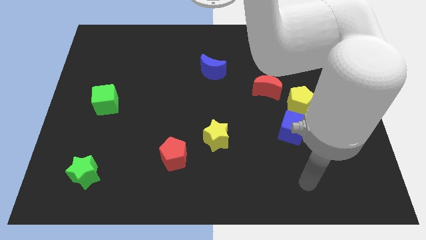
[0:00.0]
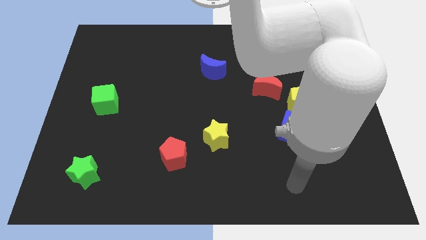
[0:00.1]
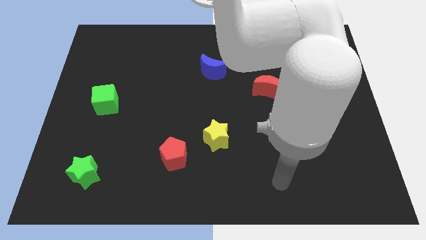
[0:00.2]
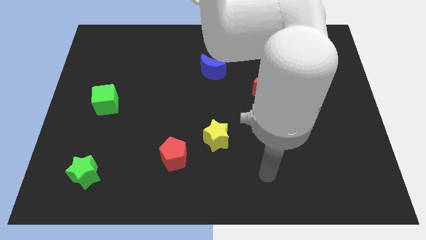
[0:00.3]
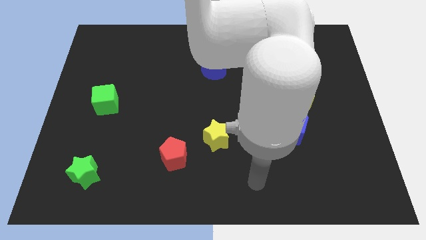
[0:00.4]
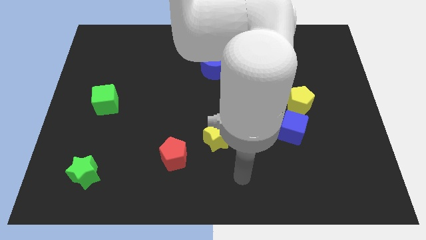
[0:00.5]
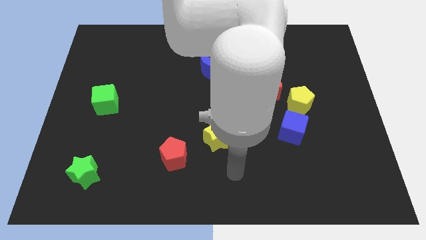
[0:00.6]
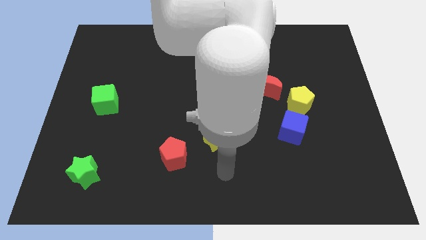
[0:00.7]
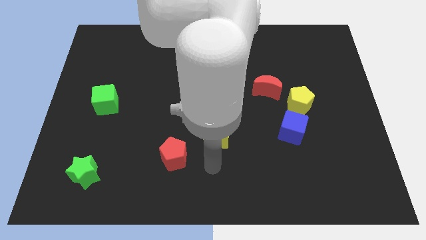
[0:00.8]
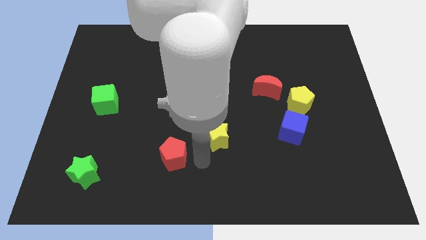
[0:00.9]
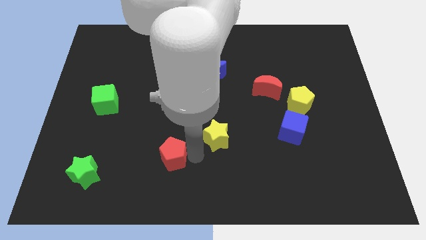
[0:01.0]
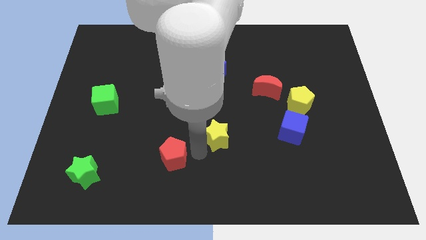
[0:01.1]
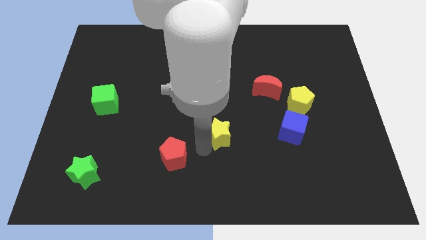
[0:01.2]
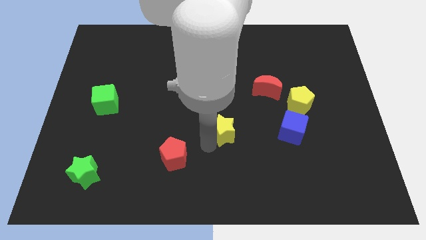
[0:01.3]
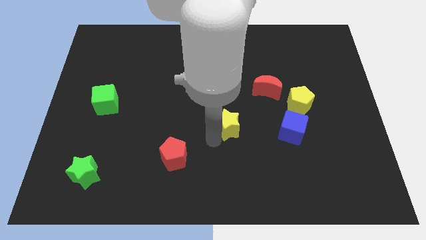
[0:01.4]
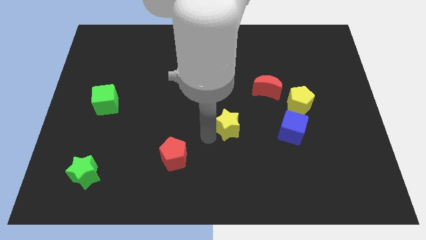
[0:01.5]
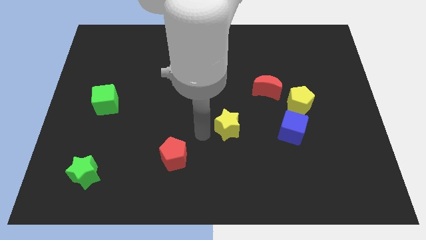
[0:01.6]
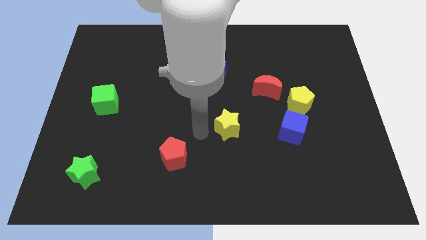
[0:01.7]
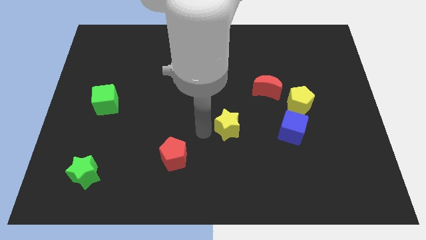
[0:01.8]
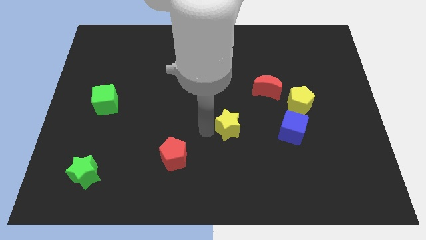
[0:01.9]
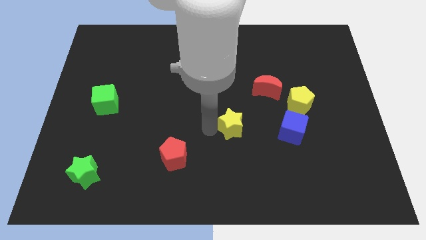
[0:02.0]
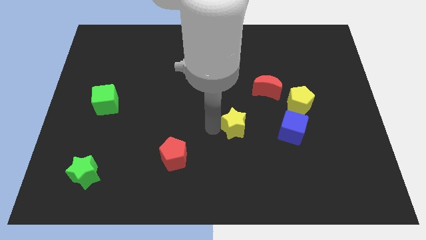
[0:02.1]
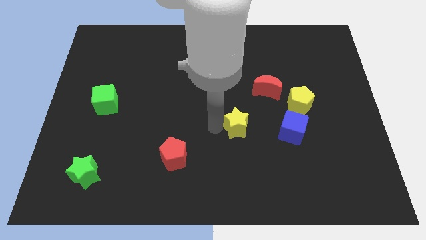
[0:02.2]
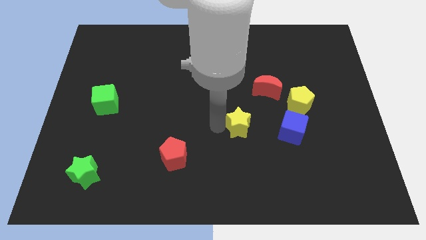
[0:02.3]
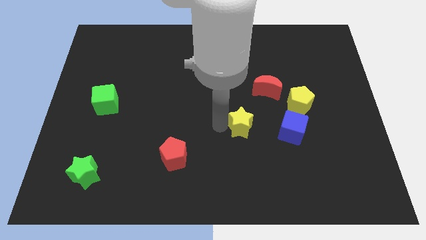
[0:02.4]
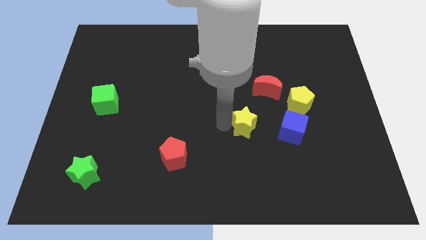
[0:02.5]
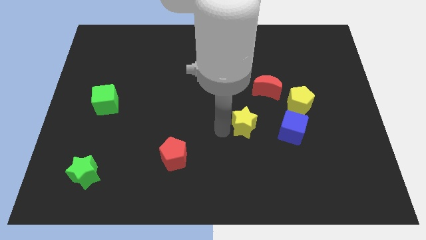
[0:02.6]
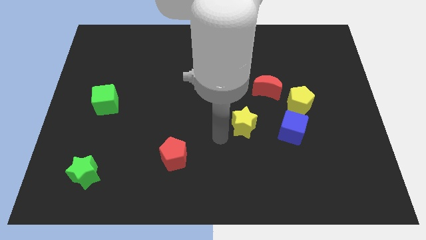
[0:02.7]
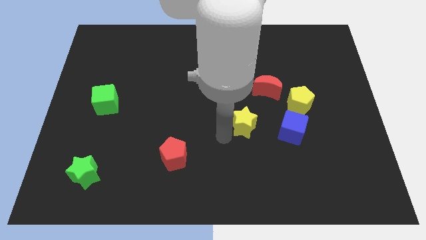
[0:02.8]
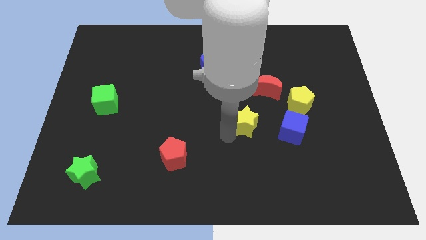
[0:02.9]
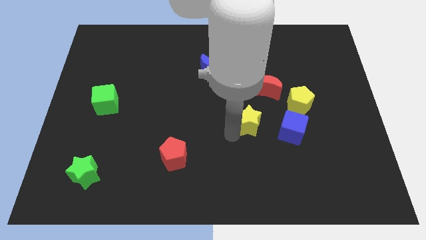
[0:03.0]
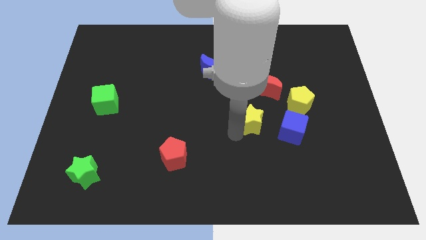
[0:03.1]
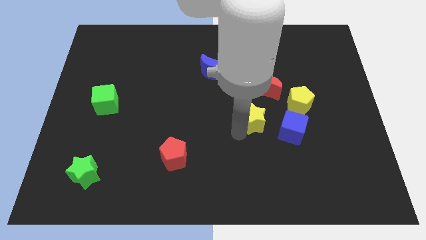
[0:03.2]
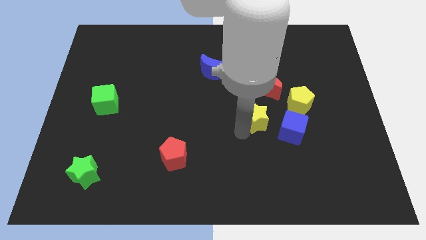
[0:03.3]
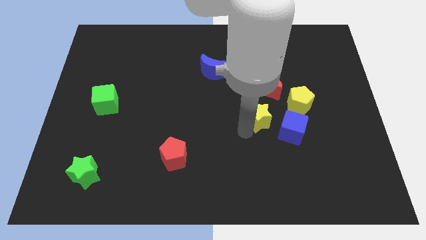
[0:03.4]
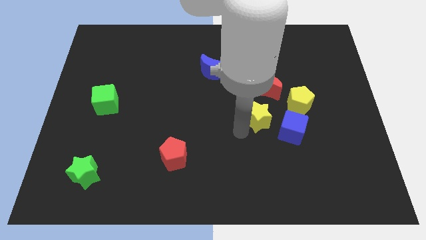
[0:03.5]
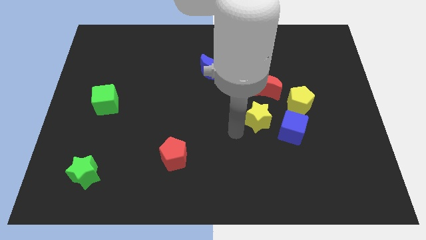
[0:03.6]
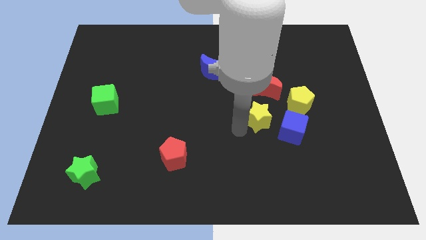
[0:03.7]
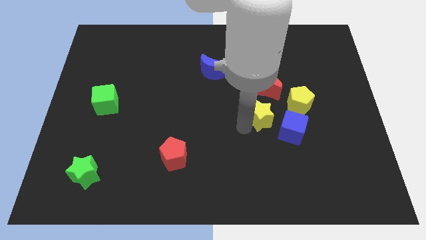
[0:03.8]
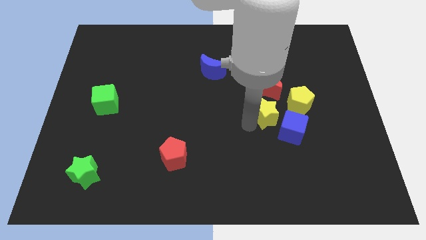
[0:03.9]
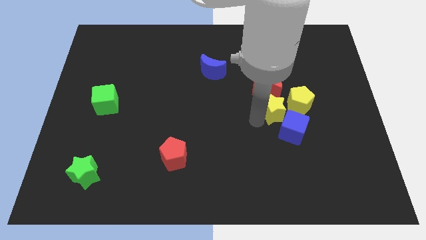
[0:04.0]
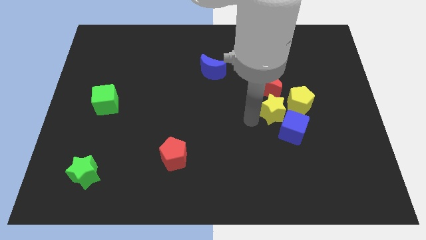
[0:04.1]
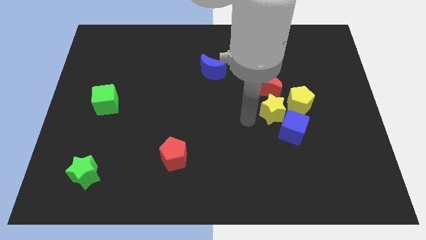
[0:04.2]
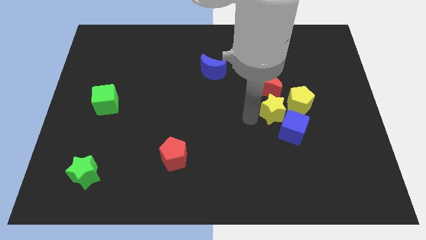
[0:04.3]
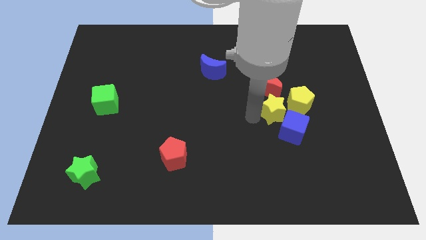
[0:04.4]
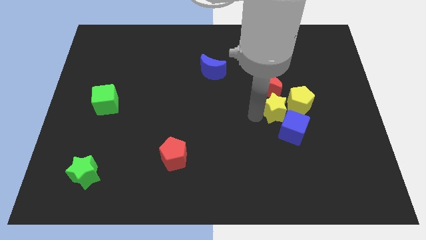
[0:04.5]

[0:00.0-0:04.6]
move the yellow star to the yellow pentagon

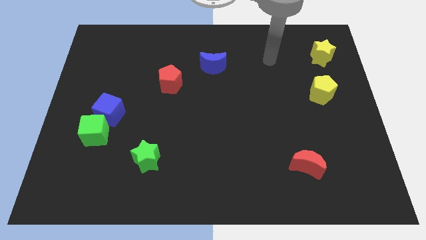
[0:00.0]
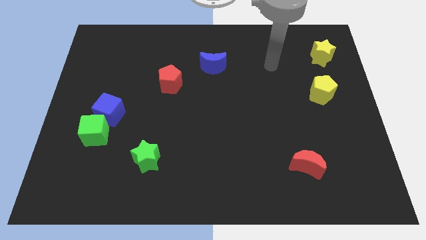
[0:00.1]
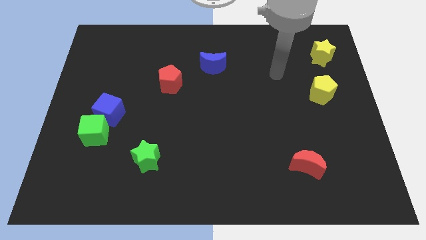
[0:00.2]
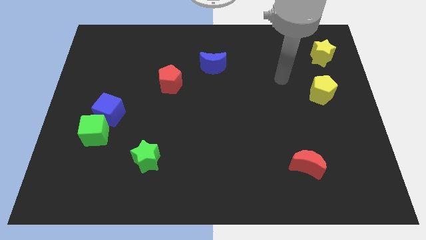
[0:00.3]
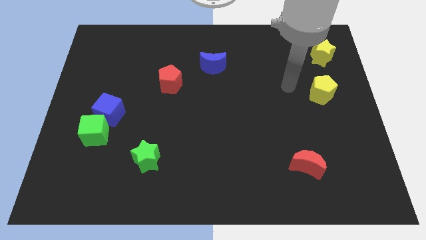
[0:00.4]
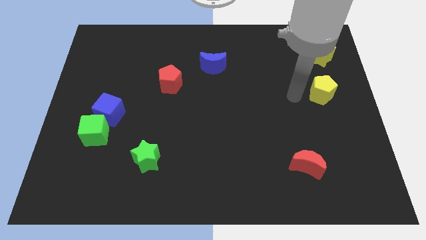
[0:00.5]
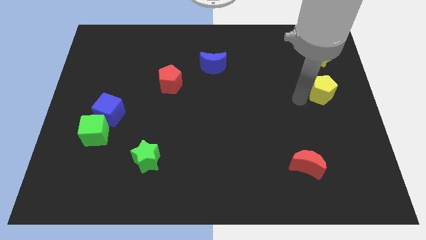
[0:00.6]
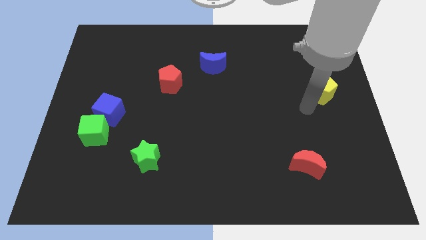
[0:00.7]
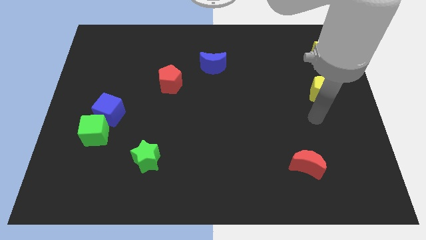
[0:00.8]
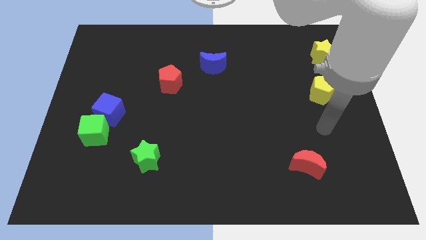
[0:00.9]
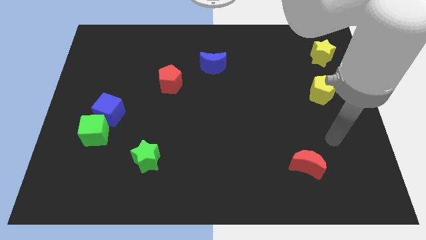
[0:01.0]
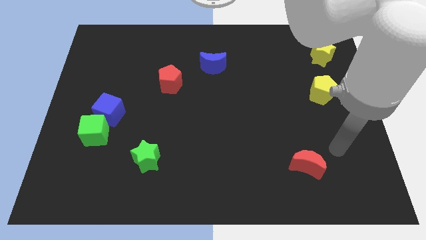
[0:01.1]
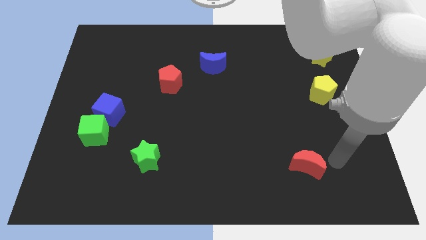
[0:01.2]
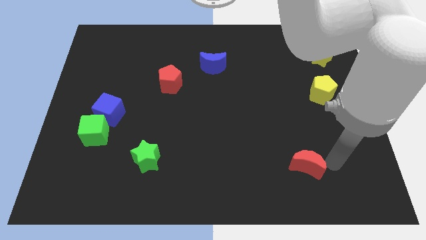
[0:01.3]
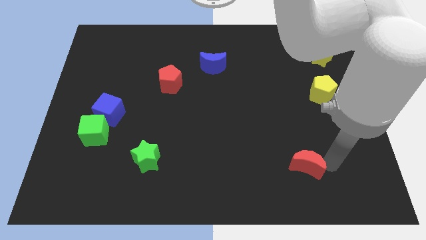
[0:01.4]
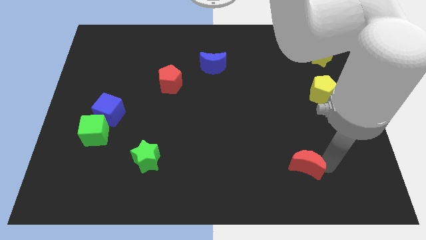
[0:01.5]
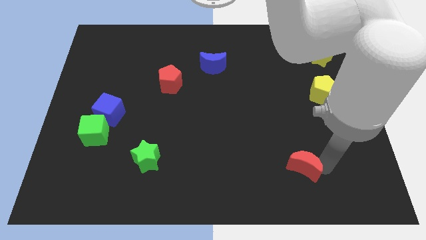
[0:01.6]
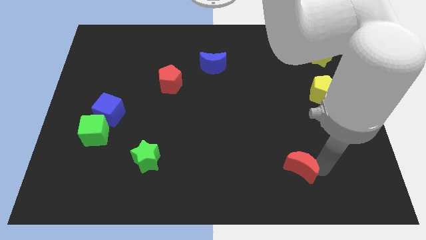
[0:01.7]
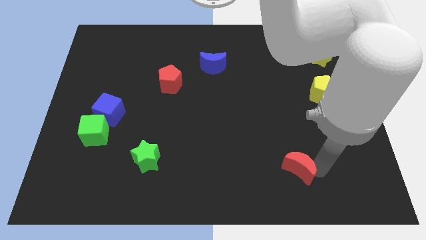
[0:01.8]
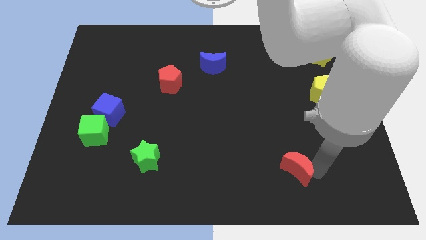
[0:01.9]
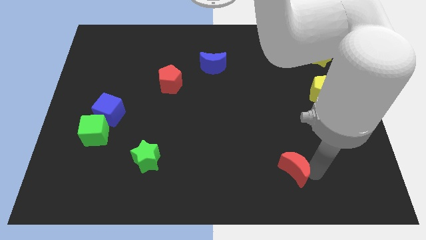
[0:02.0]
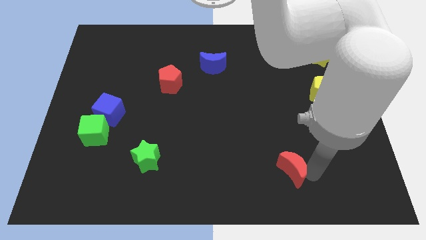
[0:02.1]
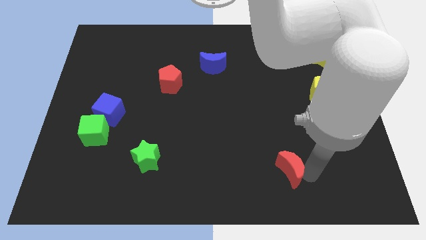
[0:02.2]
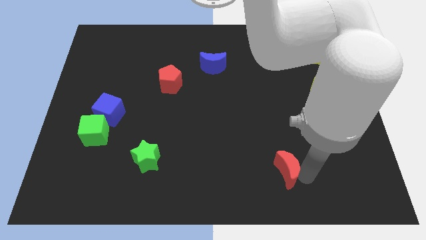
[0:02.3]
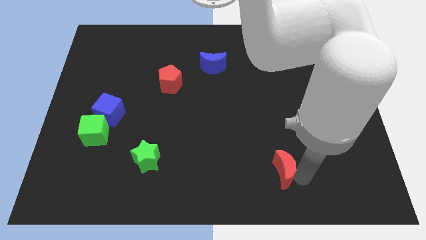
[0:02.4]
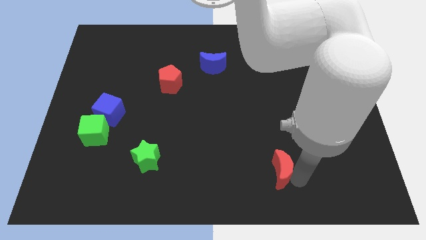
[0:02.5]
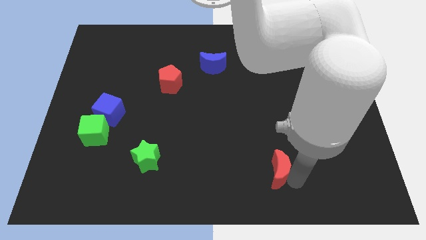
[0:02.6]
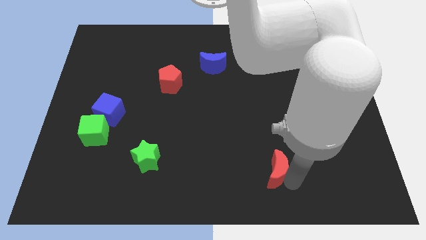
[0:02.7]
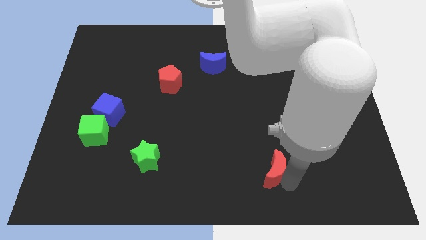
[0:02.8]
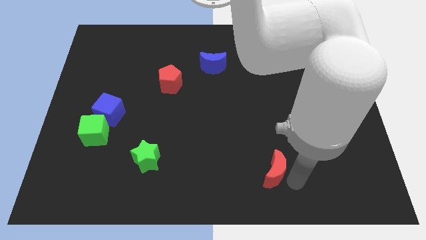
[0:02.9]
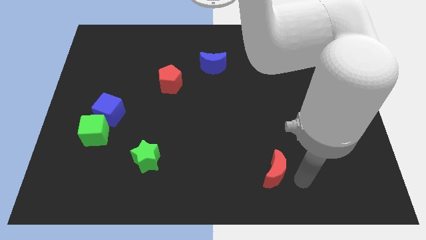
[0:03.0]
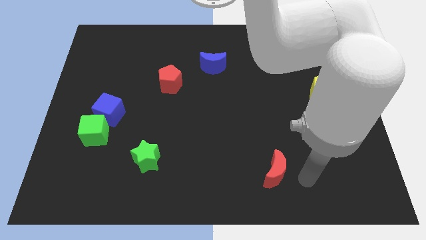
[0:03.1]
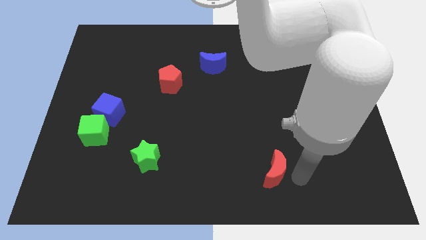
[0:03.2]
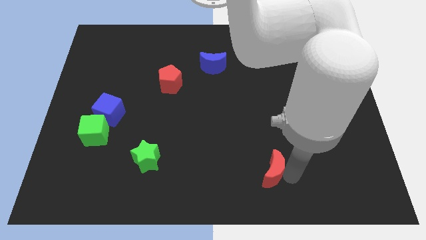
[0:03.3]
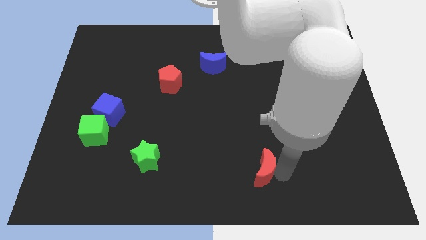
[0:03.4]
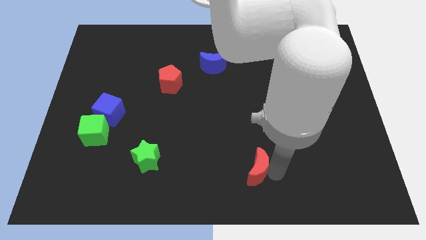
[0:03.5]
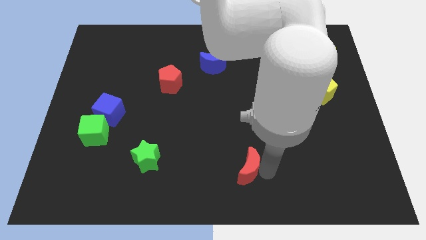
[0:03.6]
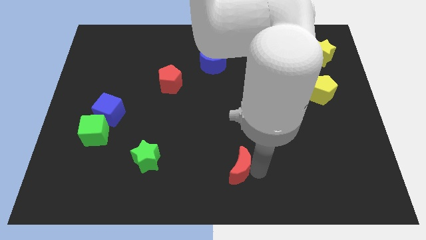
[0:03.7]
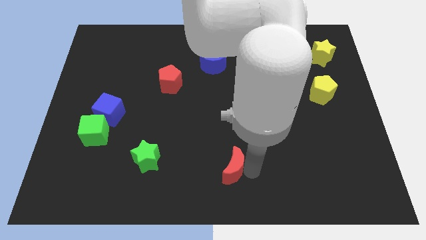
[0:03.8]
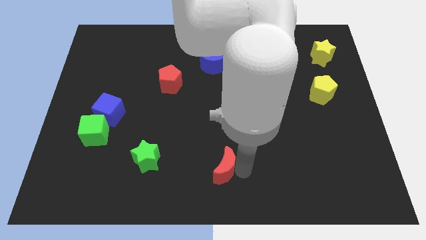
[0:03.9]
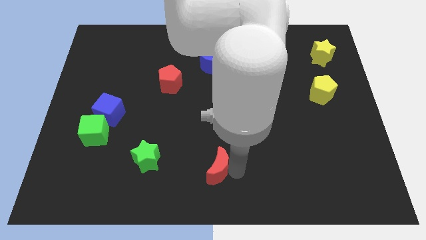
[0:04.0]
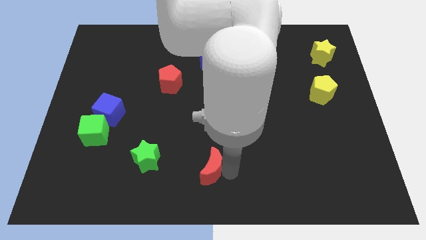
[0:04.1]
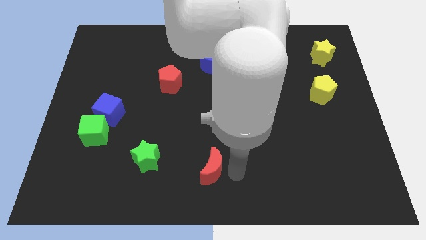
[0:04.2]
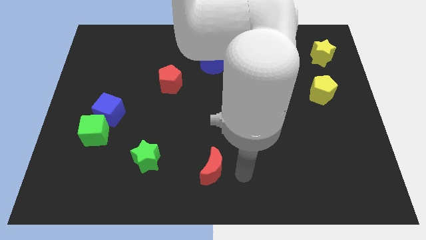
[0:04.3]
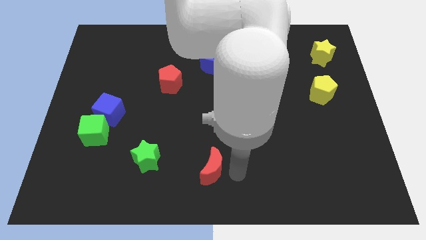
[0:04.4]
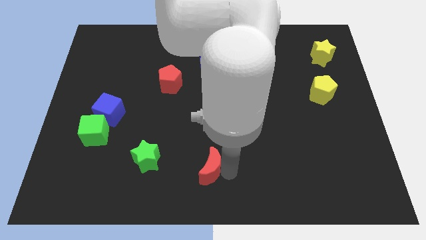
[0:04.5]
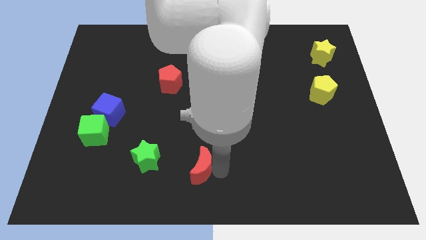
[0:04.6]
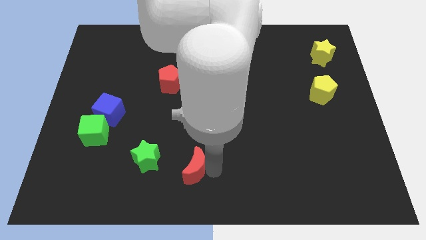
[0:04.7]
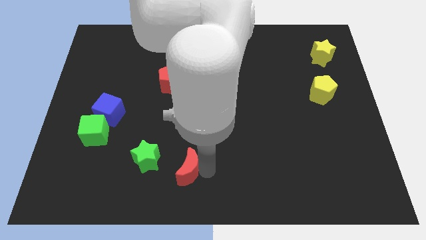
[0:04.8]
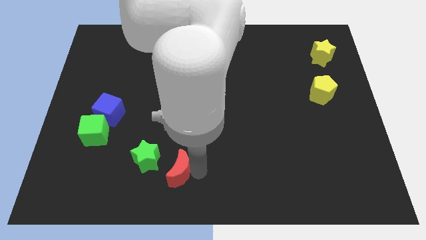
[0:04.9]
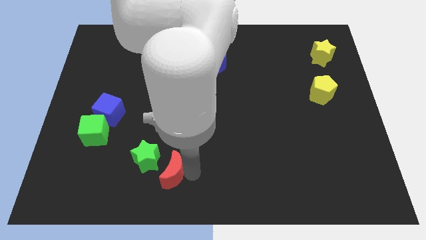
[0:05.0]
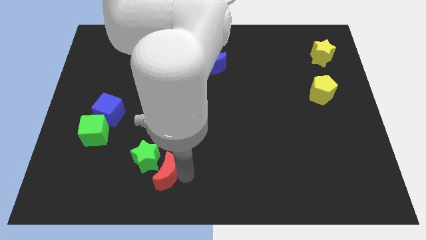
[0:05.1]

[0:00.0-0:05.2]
slide the red moon to the green star
